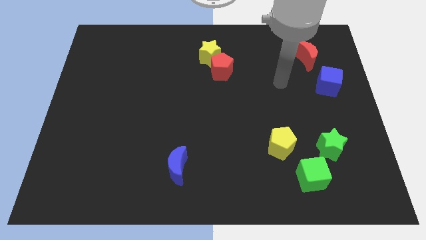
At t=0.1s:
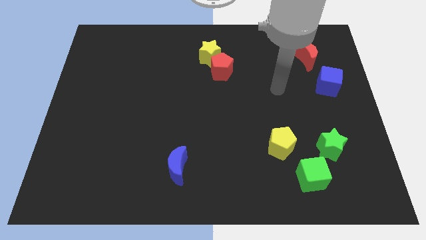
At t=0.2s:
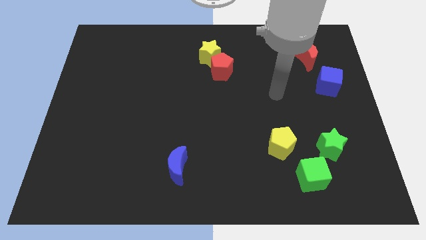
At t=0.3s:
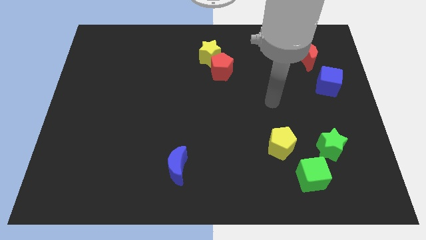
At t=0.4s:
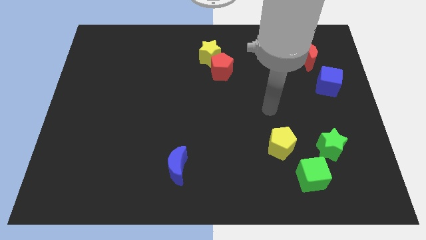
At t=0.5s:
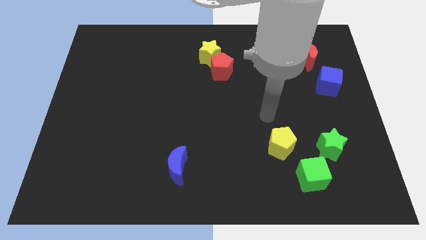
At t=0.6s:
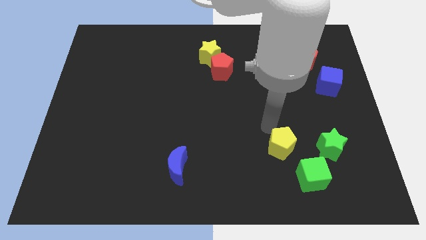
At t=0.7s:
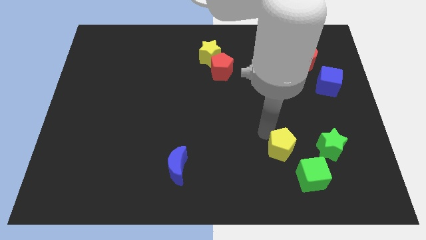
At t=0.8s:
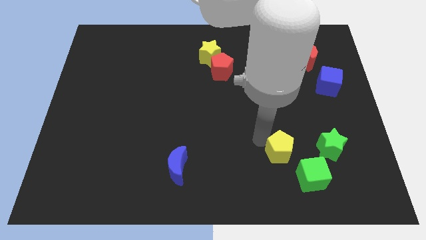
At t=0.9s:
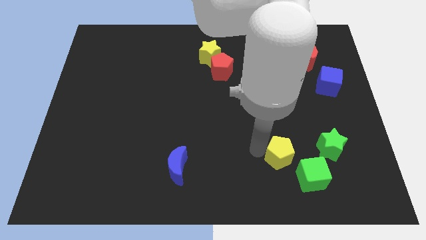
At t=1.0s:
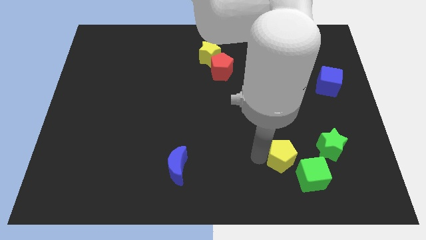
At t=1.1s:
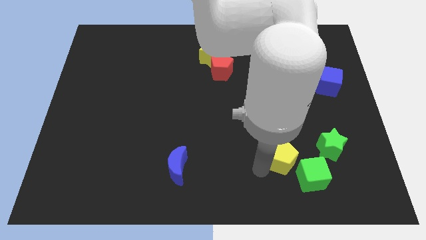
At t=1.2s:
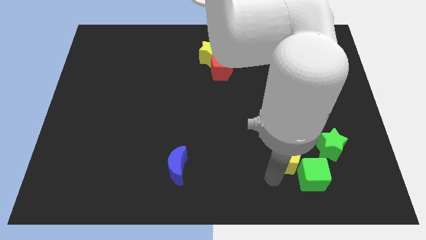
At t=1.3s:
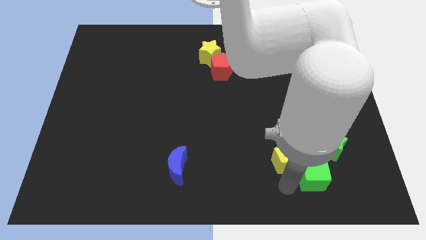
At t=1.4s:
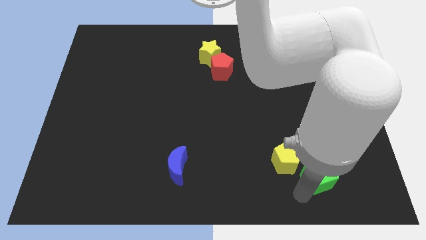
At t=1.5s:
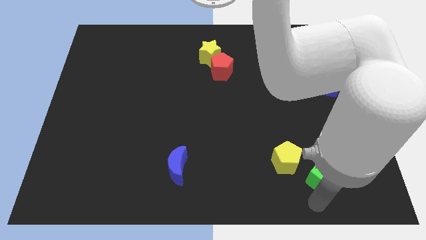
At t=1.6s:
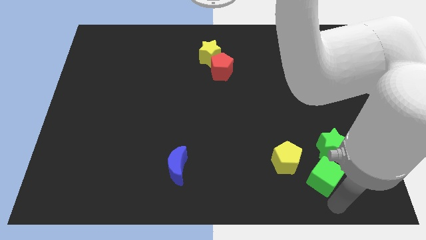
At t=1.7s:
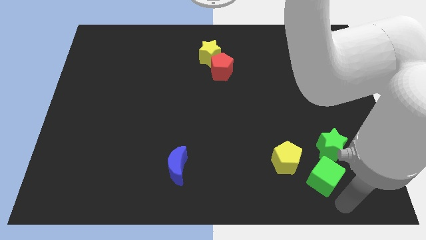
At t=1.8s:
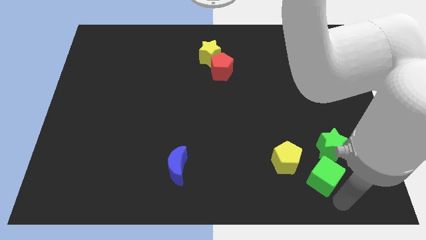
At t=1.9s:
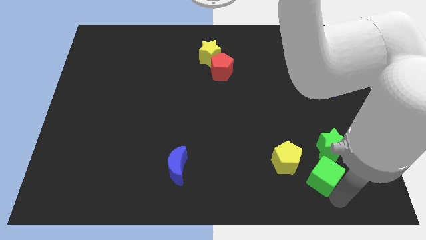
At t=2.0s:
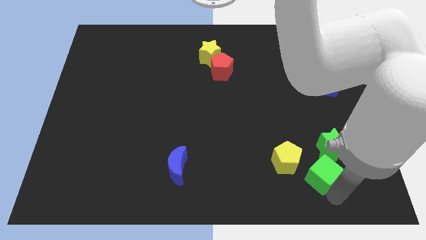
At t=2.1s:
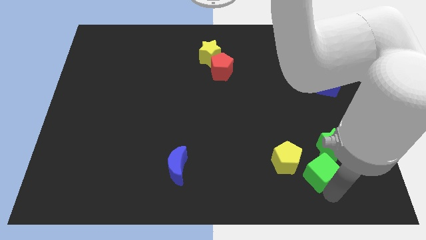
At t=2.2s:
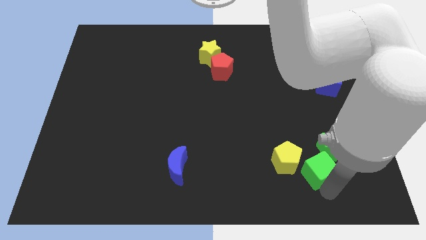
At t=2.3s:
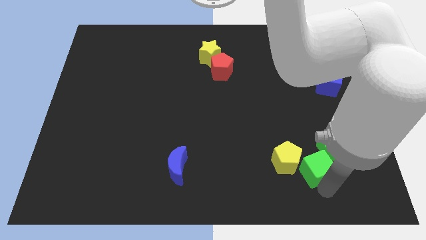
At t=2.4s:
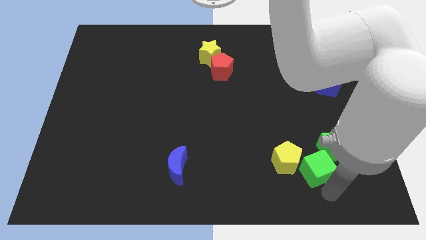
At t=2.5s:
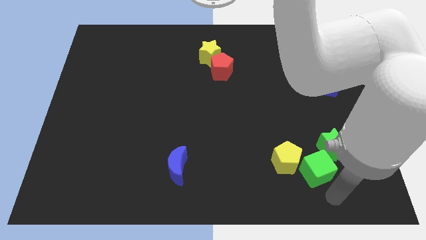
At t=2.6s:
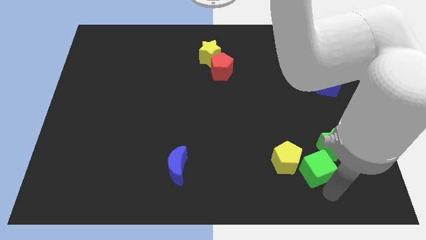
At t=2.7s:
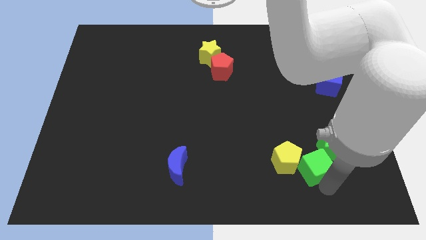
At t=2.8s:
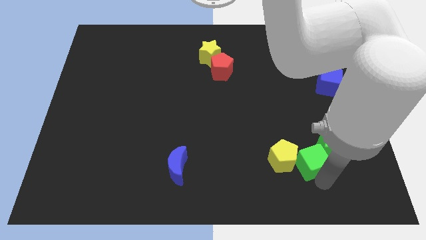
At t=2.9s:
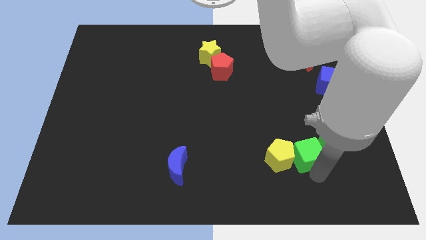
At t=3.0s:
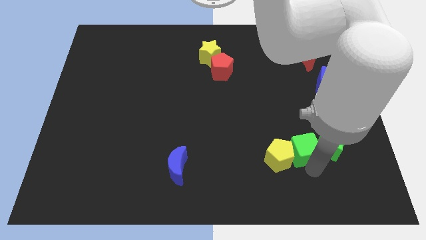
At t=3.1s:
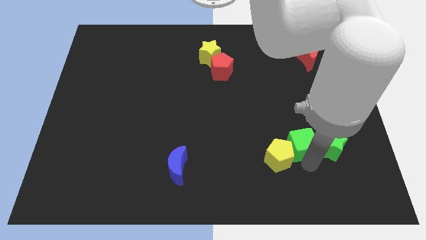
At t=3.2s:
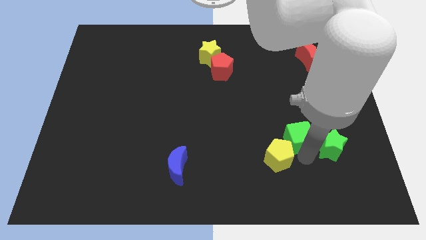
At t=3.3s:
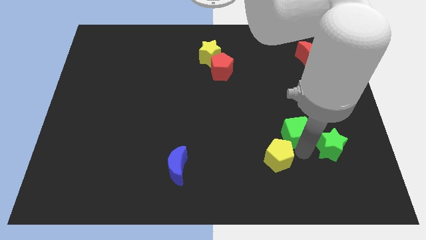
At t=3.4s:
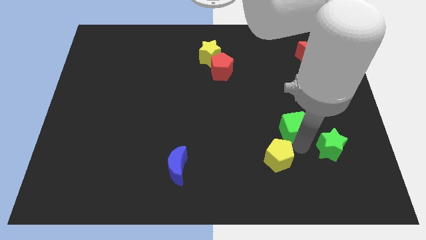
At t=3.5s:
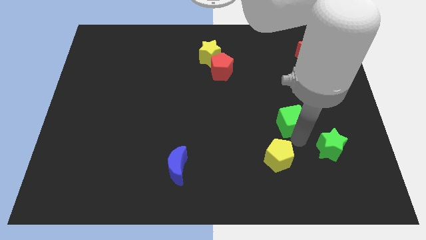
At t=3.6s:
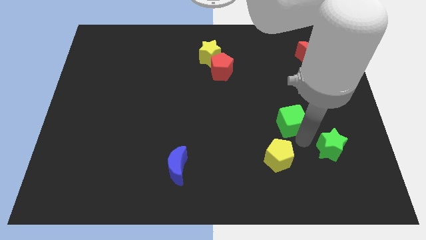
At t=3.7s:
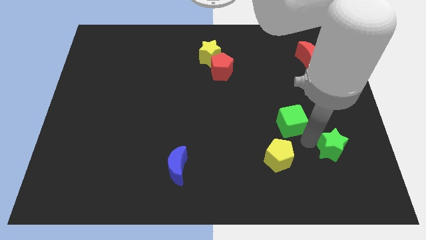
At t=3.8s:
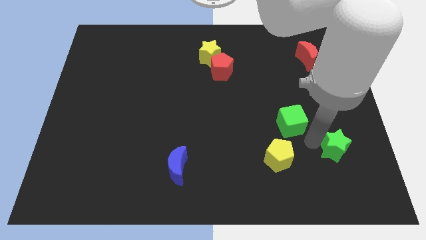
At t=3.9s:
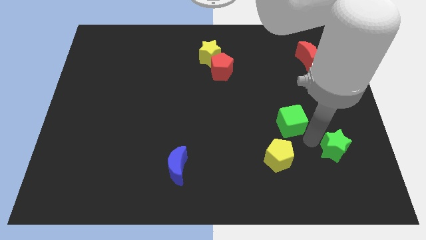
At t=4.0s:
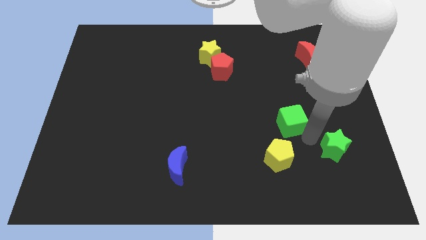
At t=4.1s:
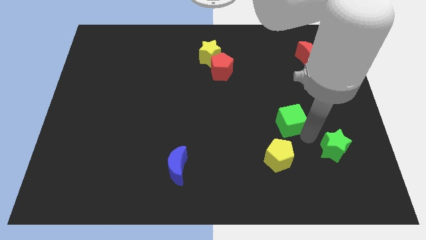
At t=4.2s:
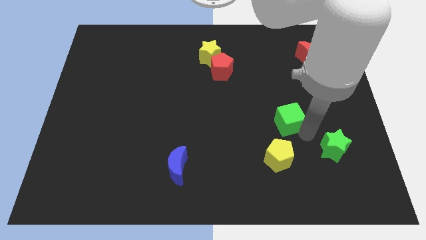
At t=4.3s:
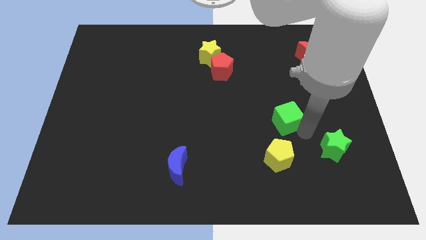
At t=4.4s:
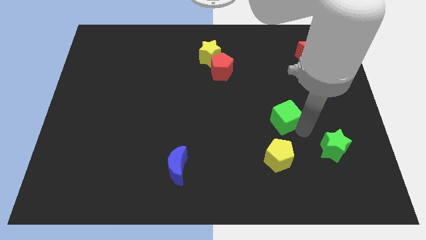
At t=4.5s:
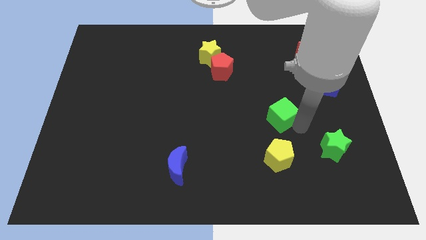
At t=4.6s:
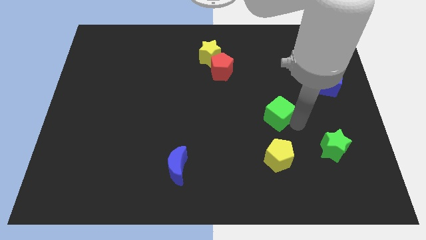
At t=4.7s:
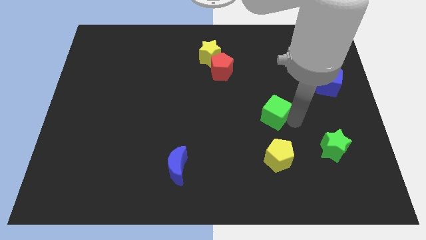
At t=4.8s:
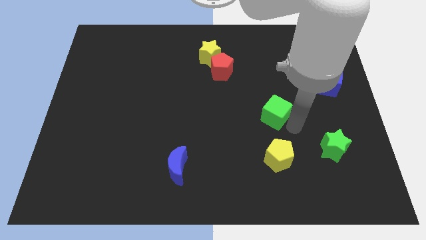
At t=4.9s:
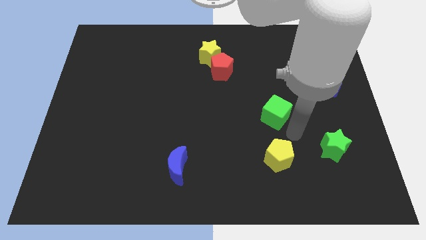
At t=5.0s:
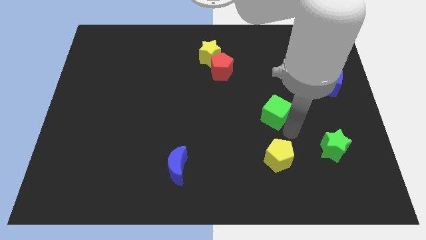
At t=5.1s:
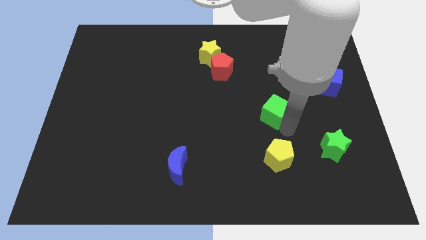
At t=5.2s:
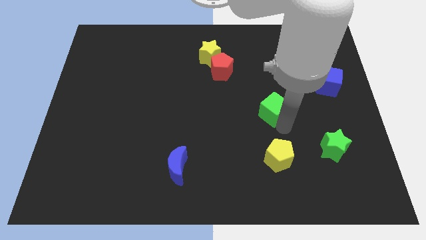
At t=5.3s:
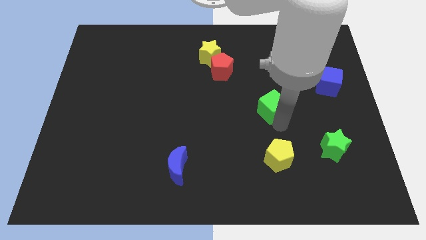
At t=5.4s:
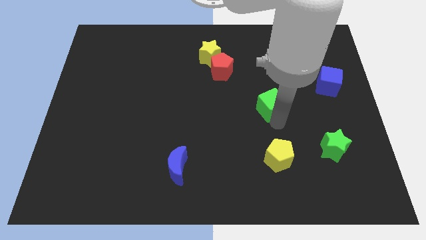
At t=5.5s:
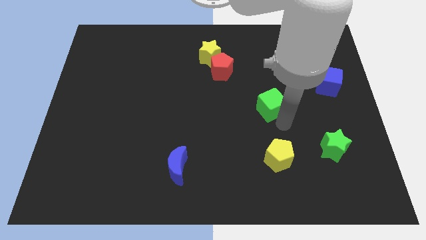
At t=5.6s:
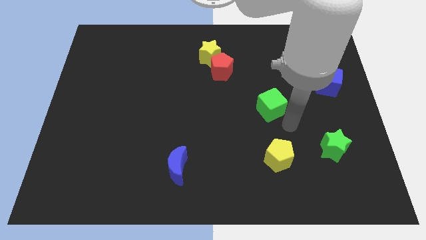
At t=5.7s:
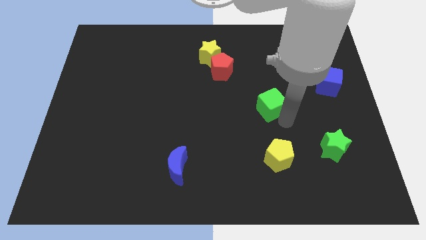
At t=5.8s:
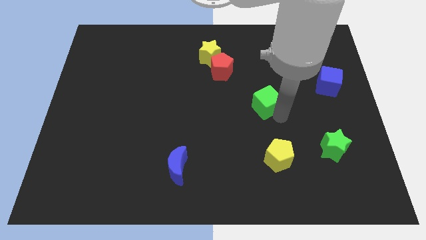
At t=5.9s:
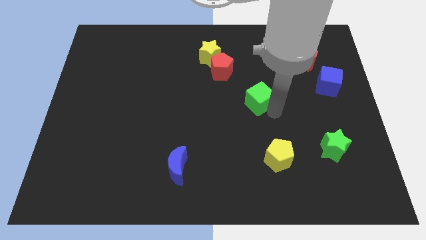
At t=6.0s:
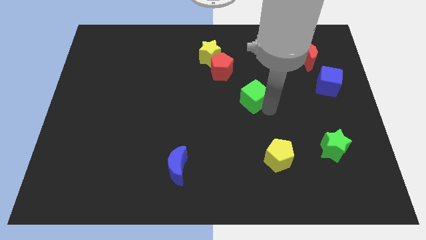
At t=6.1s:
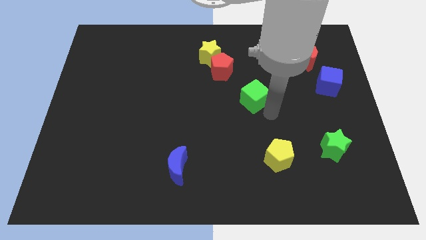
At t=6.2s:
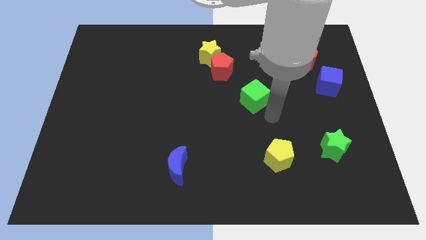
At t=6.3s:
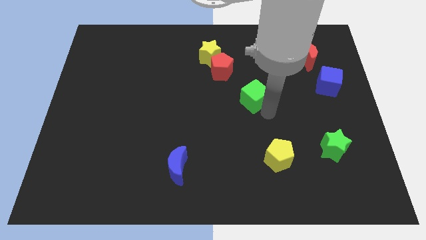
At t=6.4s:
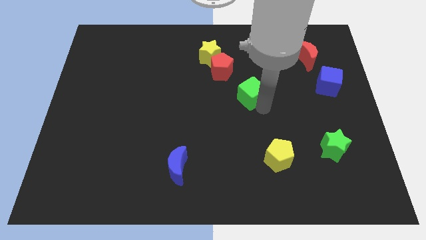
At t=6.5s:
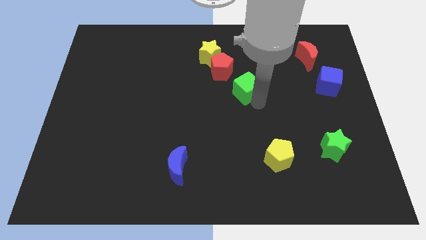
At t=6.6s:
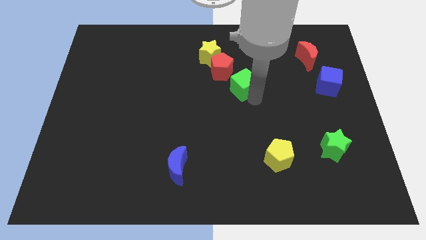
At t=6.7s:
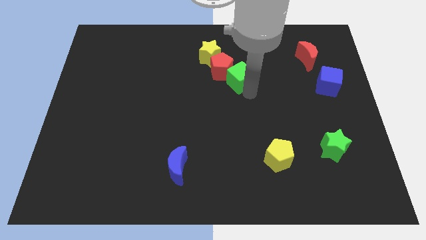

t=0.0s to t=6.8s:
slide the green cube towards the red pentagon
